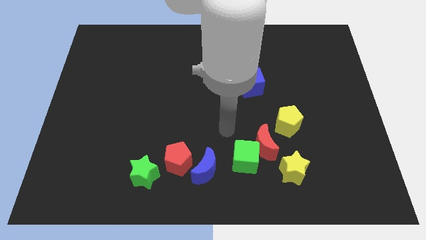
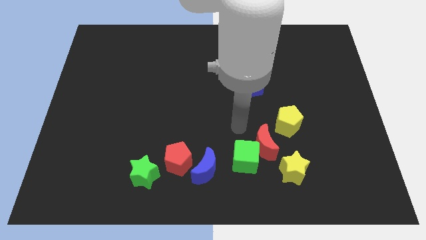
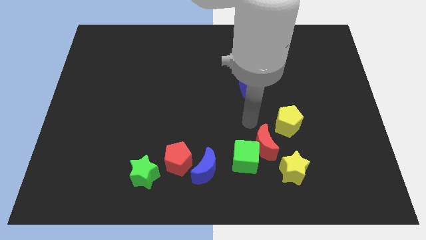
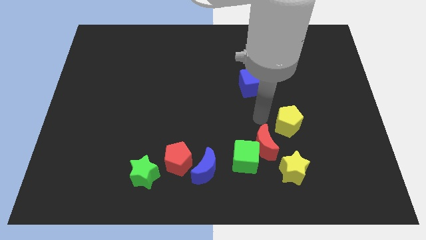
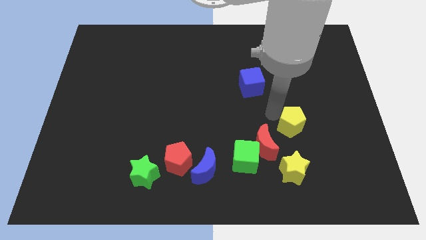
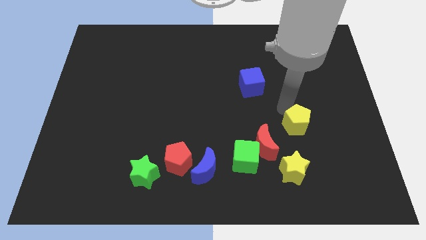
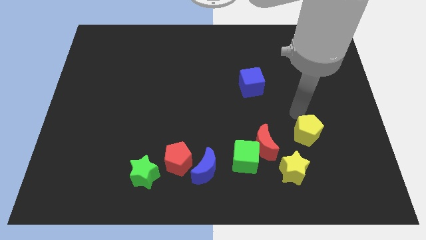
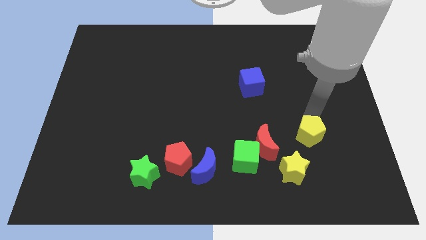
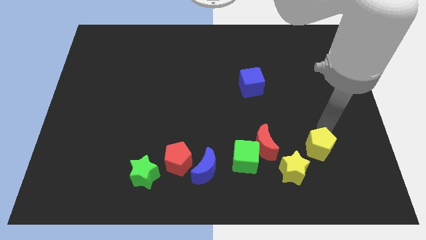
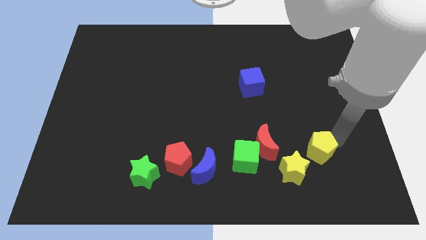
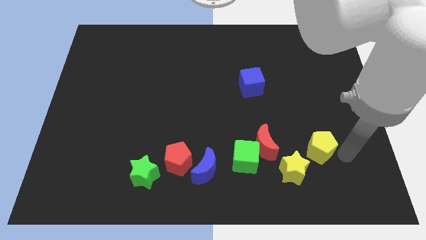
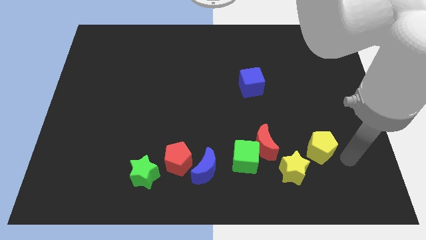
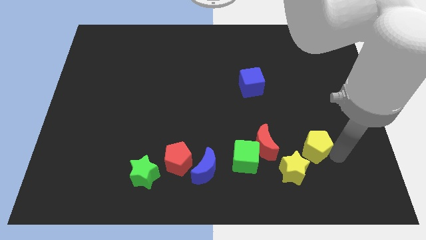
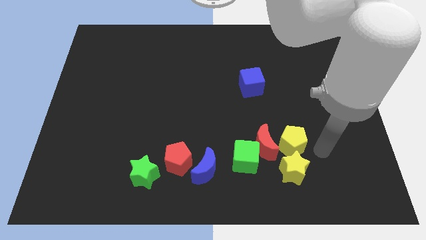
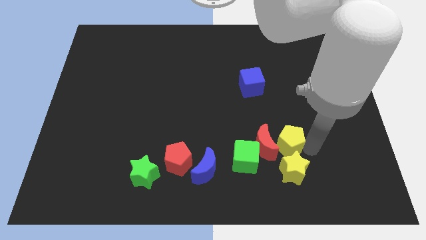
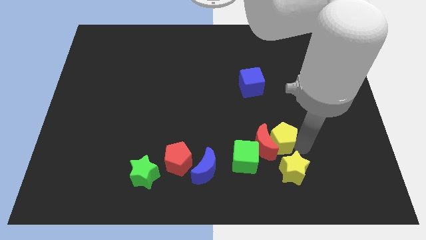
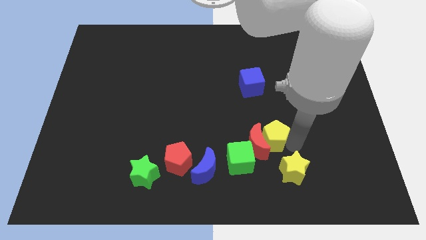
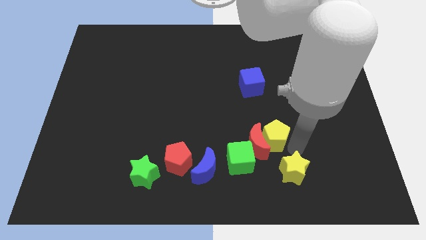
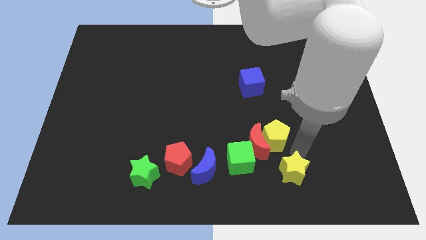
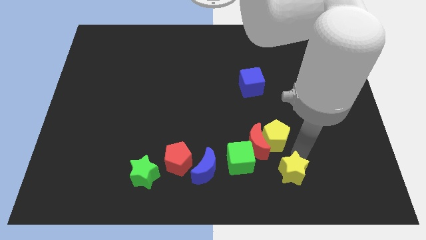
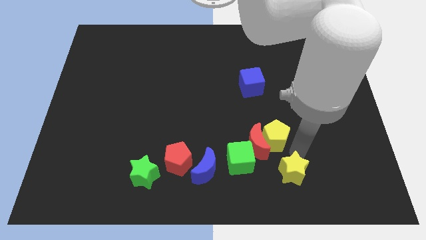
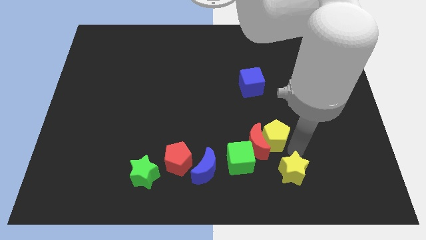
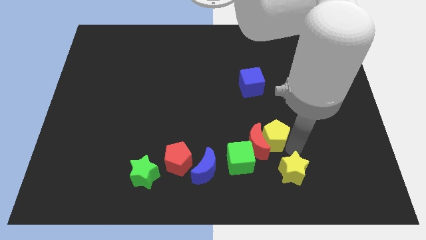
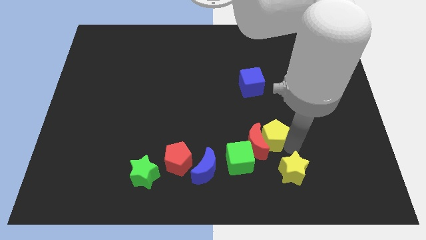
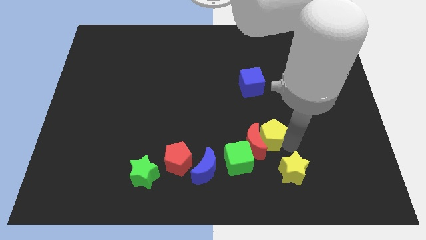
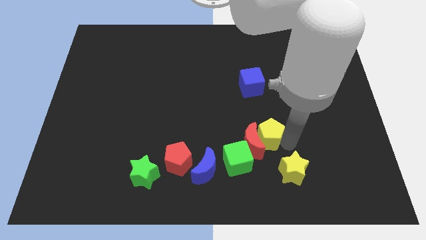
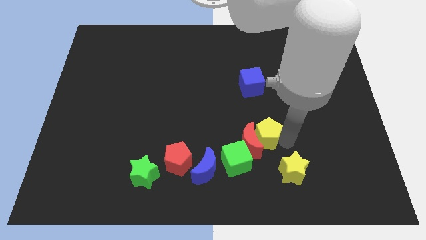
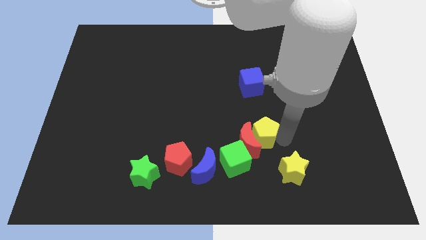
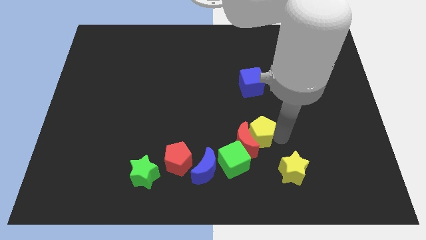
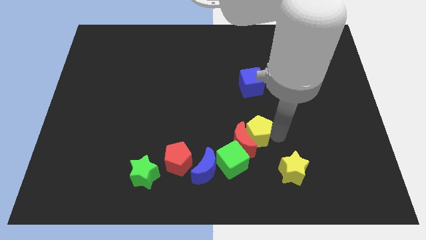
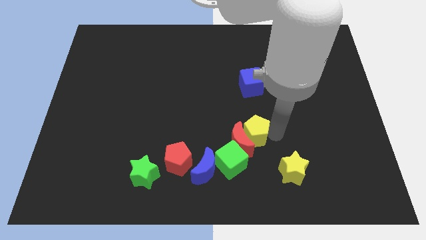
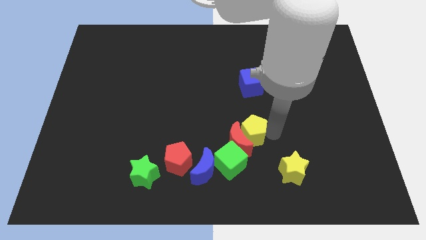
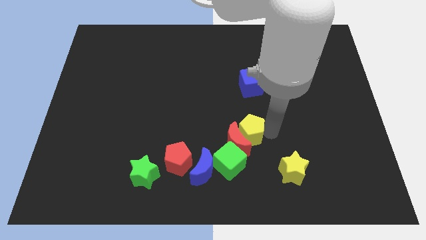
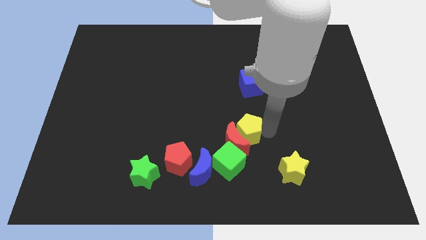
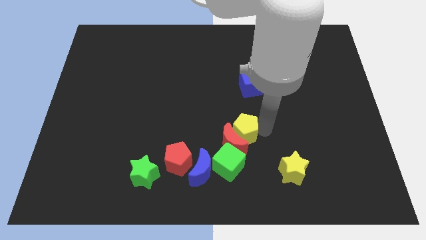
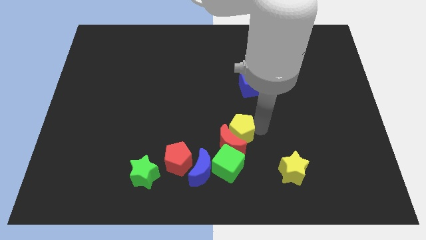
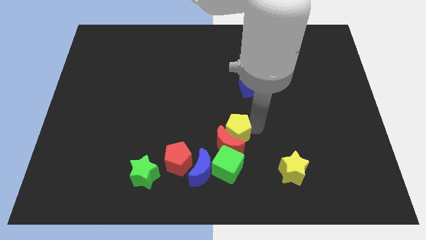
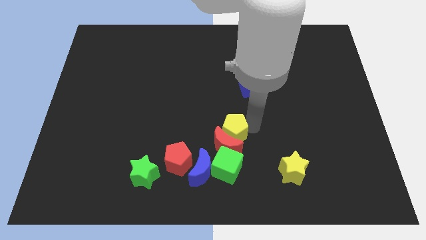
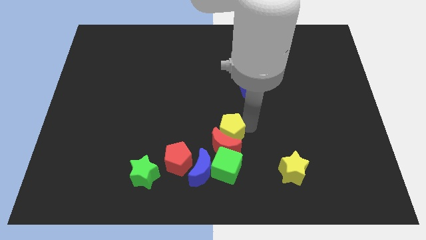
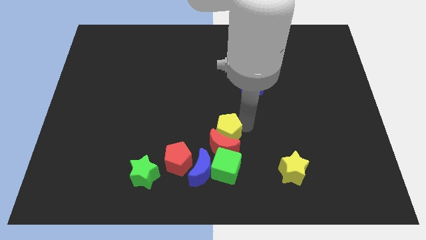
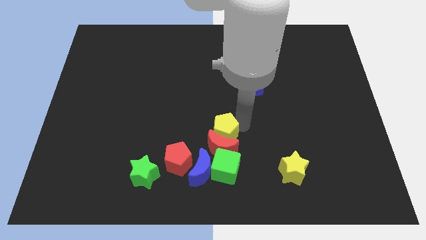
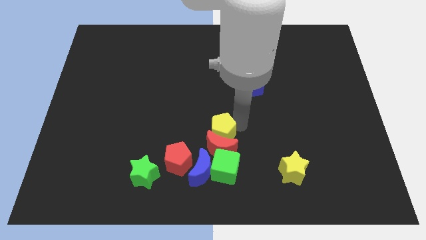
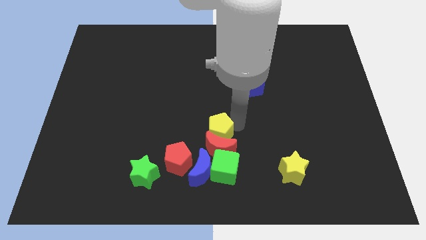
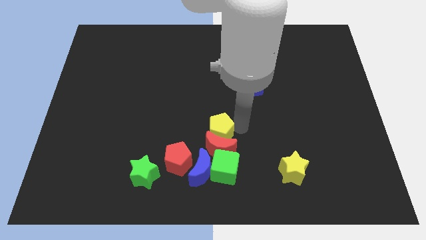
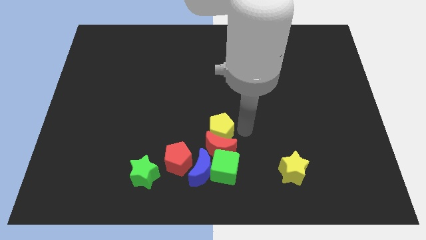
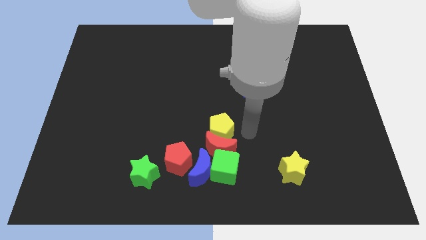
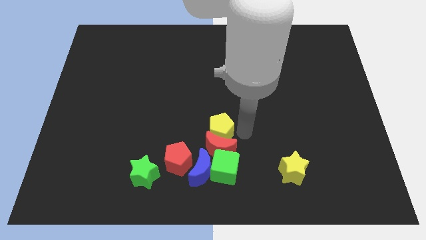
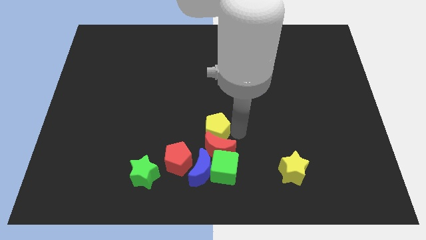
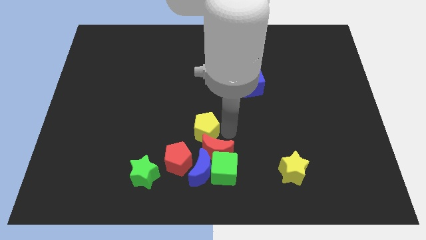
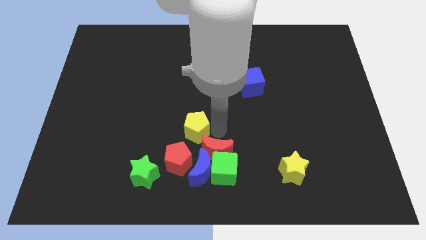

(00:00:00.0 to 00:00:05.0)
move the yellow pentagon to the left

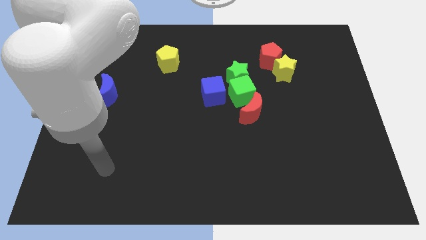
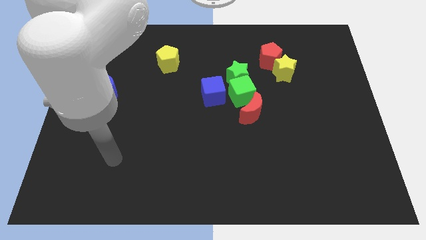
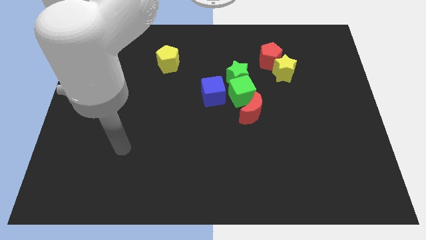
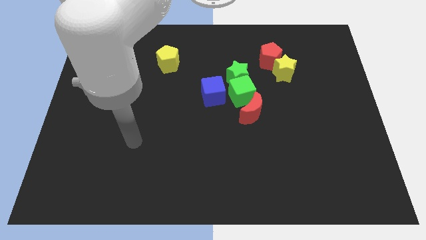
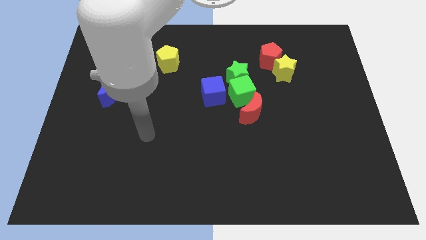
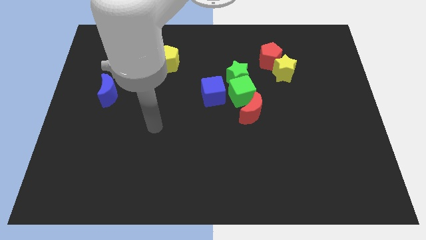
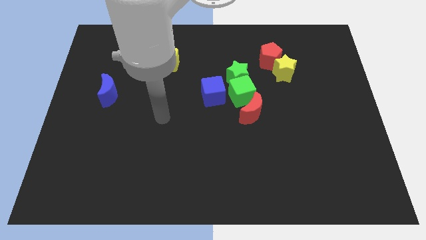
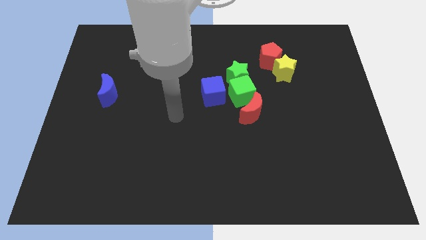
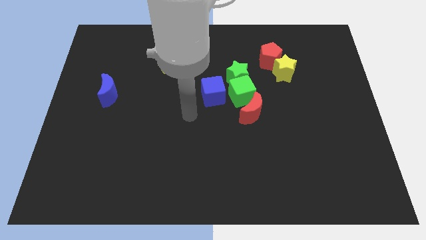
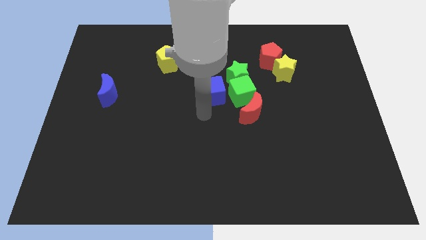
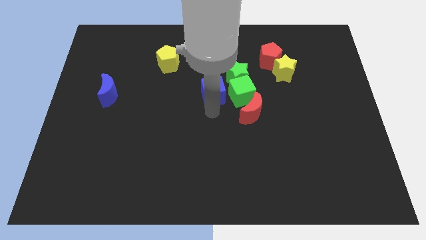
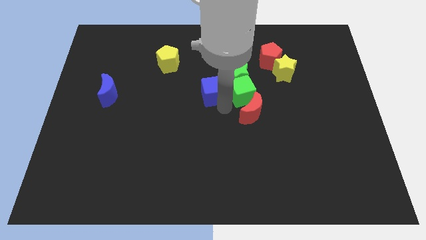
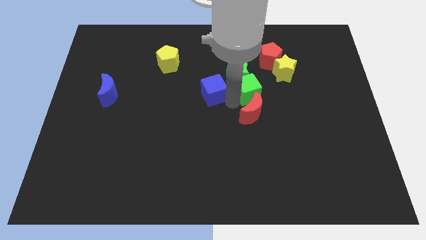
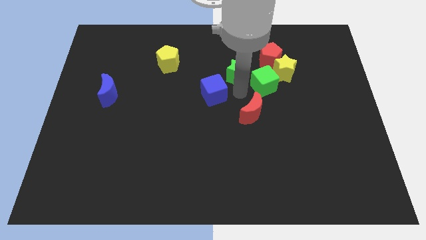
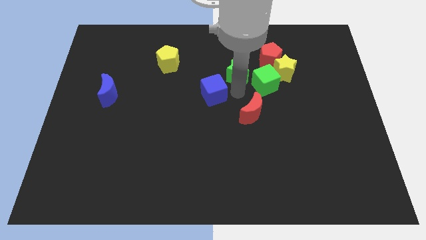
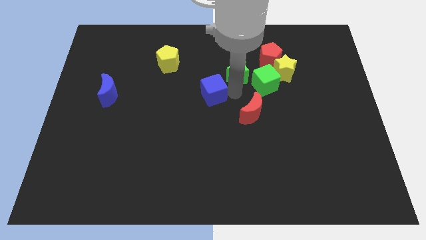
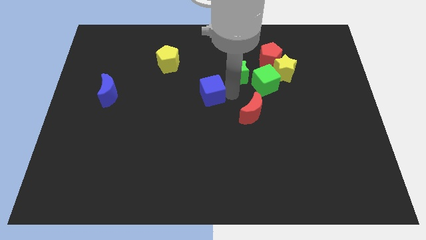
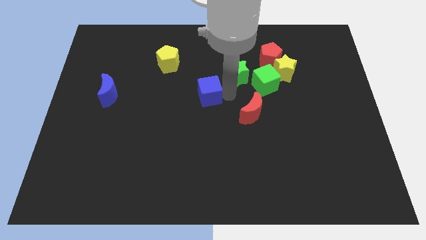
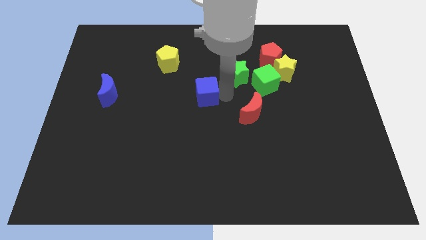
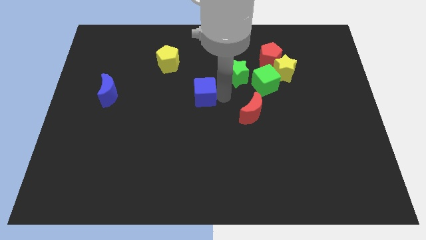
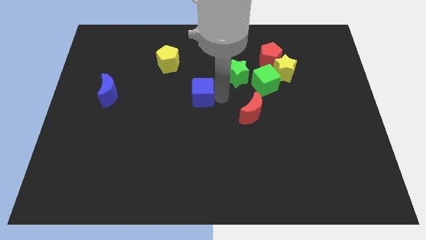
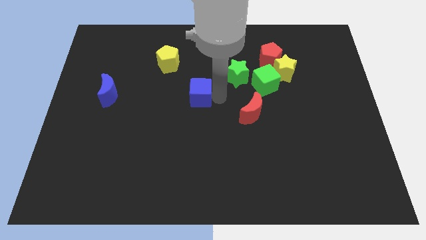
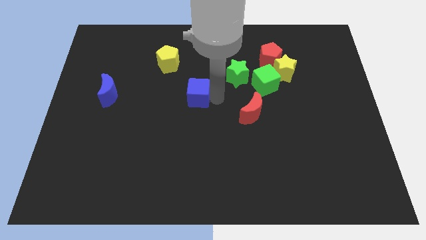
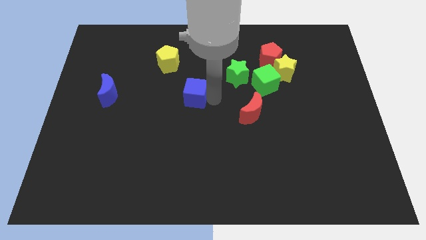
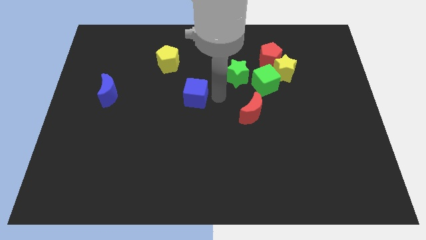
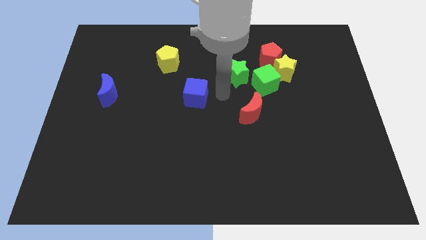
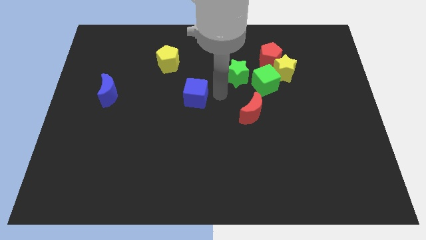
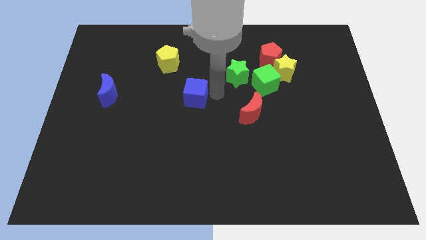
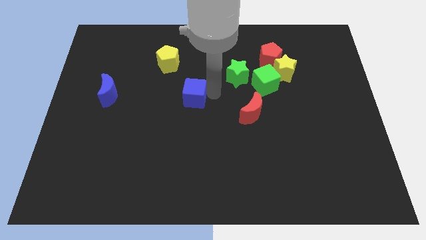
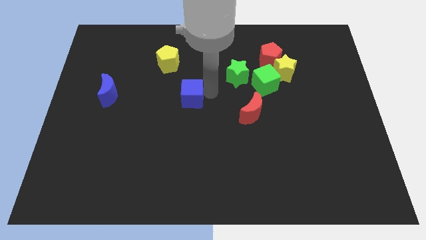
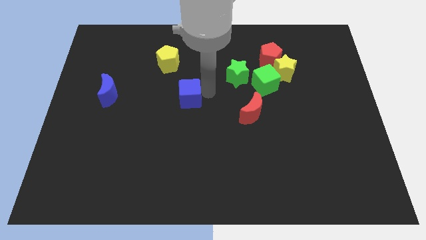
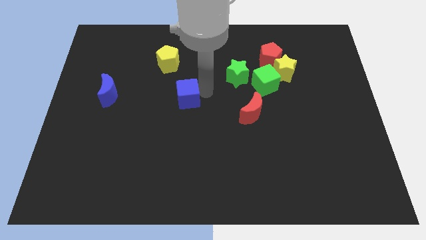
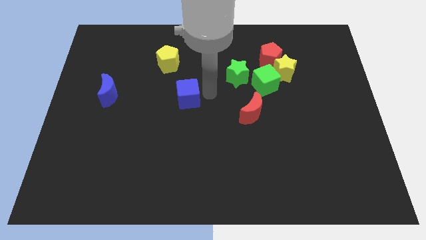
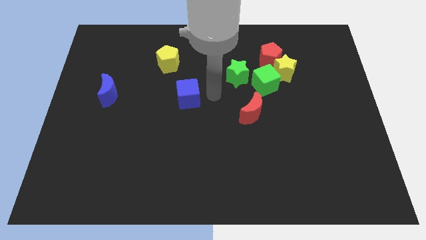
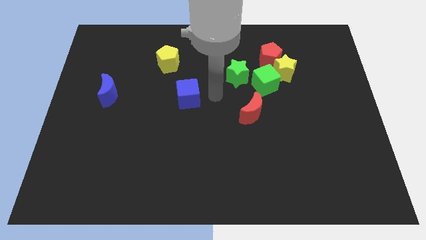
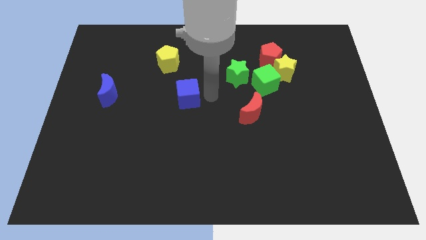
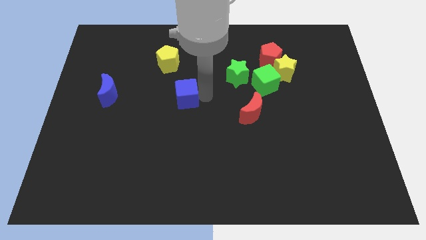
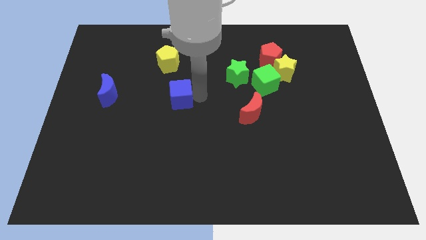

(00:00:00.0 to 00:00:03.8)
push the blue cube a bit to the left
